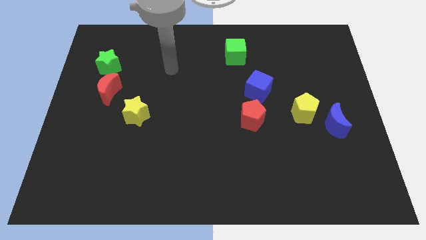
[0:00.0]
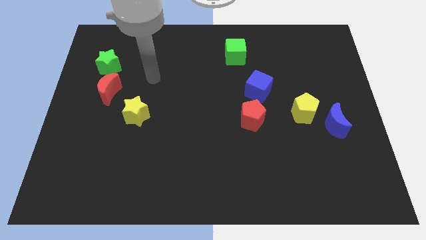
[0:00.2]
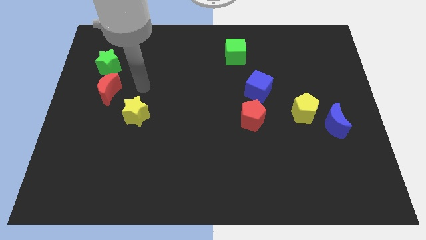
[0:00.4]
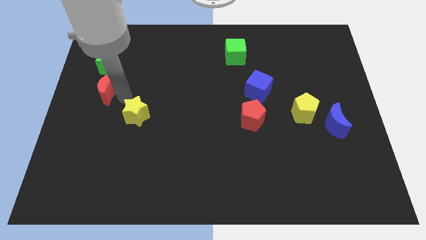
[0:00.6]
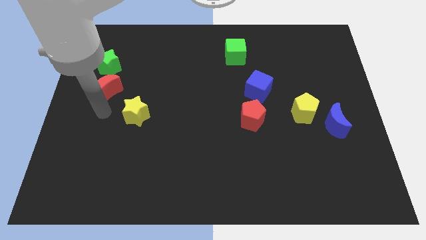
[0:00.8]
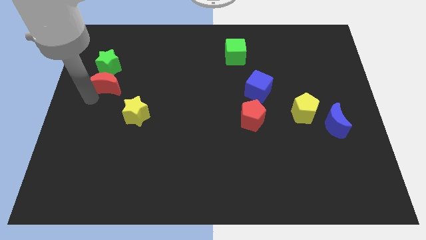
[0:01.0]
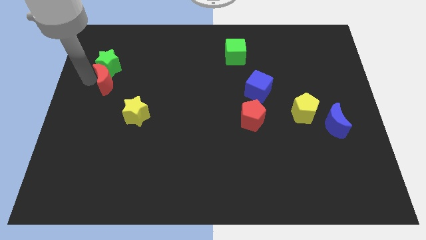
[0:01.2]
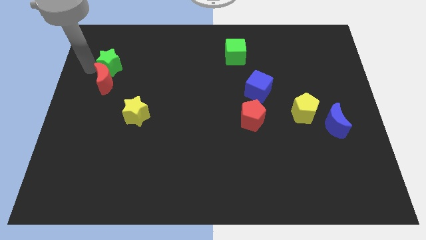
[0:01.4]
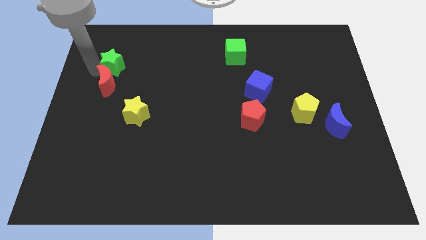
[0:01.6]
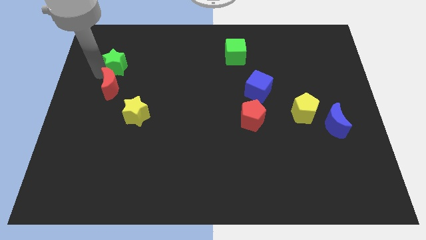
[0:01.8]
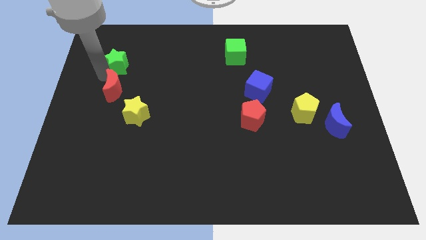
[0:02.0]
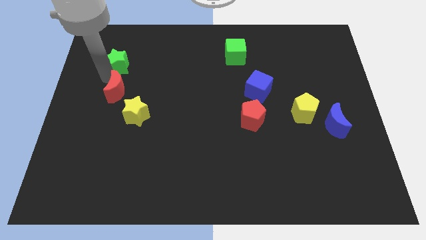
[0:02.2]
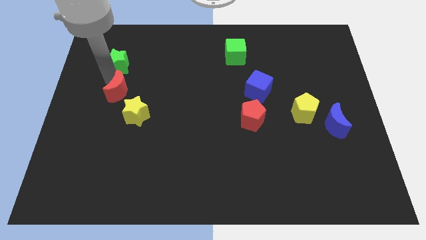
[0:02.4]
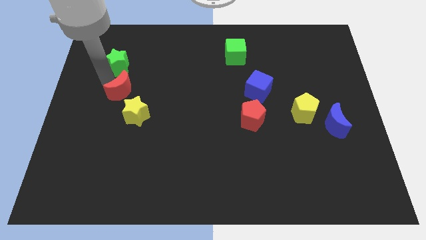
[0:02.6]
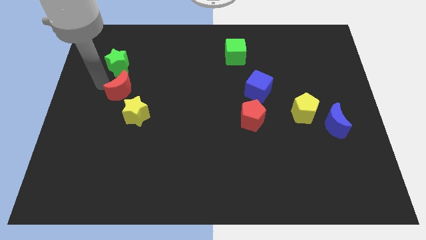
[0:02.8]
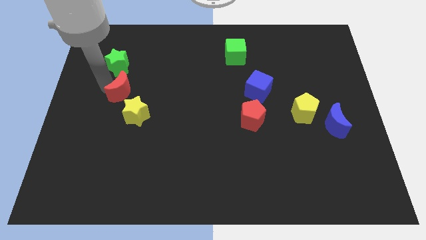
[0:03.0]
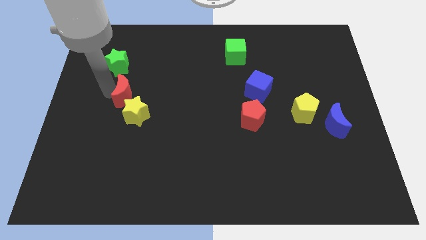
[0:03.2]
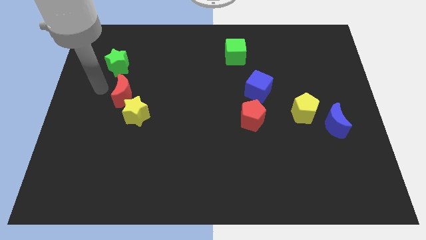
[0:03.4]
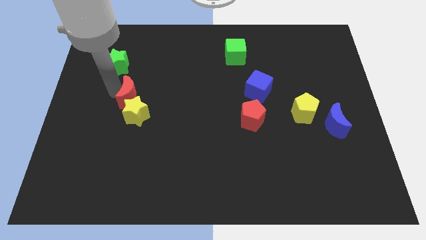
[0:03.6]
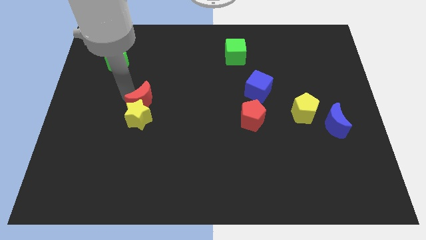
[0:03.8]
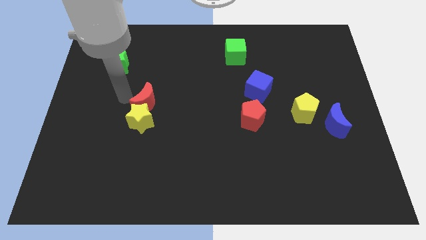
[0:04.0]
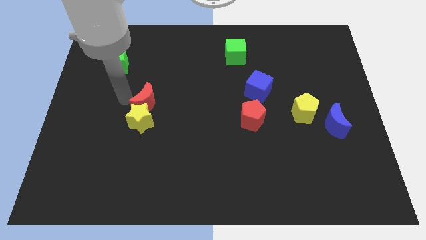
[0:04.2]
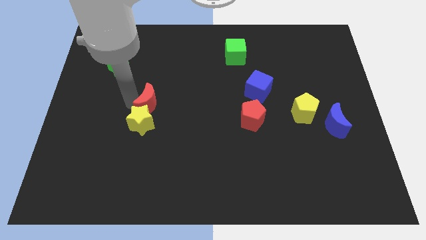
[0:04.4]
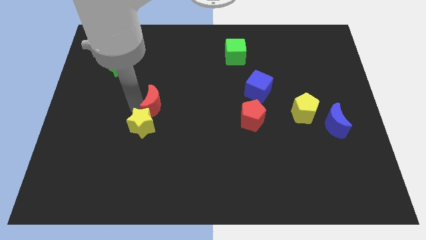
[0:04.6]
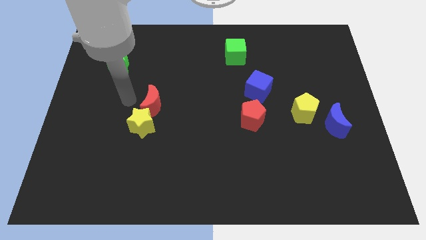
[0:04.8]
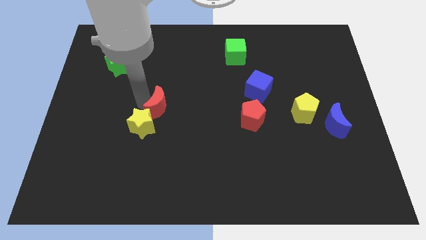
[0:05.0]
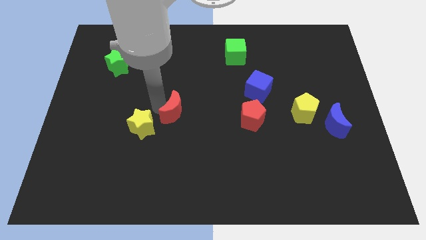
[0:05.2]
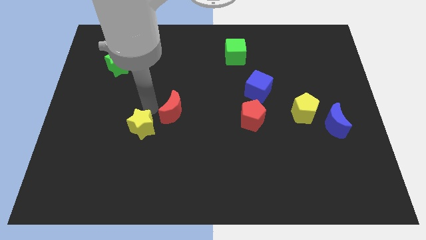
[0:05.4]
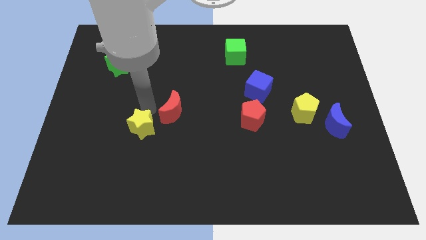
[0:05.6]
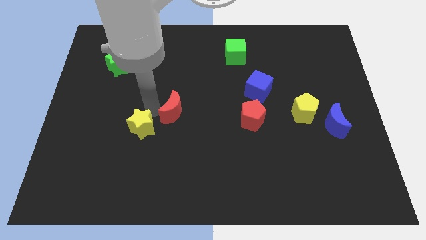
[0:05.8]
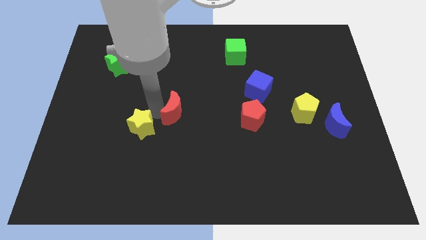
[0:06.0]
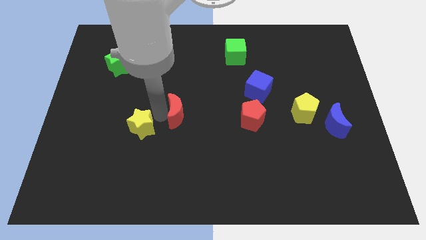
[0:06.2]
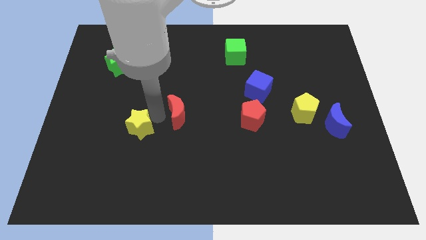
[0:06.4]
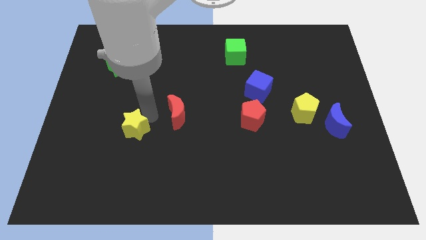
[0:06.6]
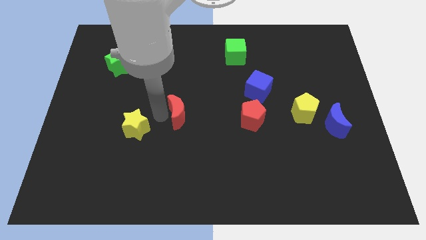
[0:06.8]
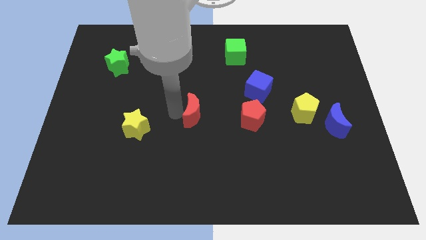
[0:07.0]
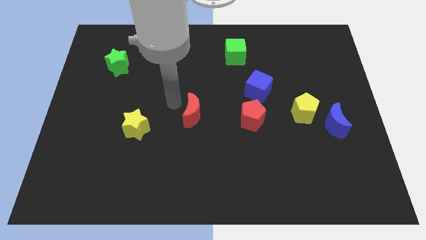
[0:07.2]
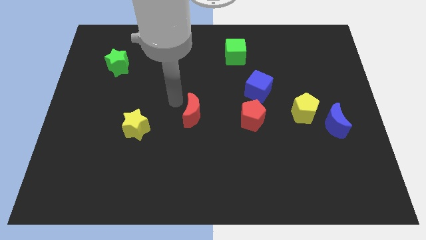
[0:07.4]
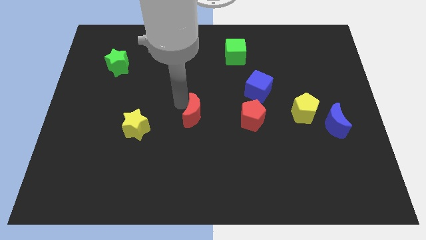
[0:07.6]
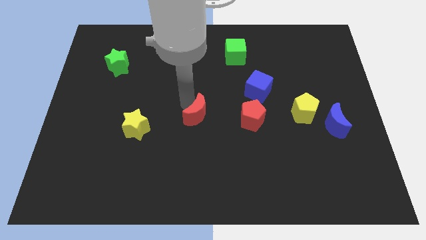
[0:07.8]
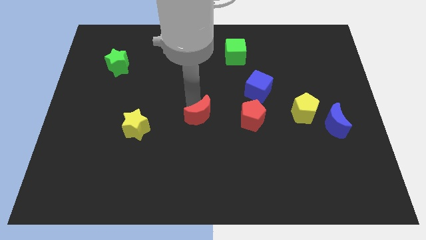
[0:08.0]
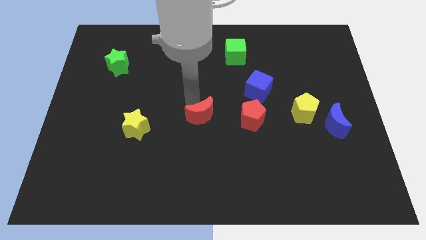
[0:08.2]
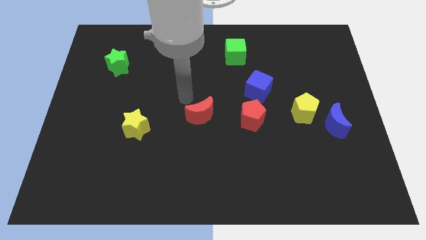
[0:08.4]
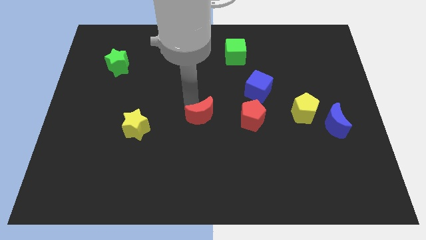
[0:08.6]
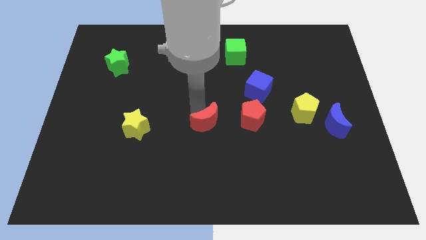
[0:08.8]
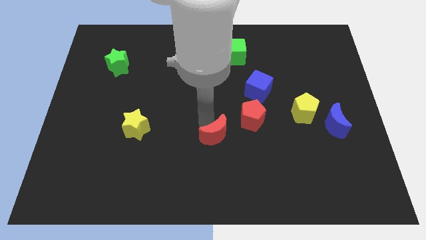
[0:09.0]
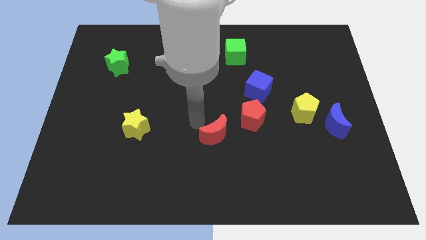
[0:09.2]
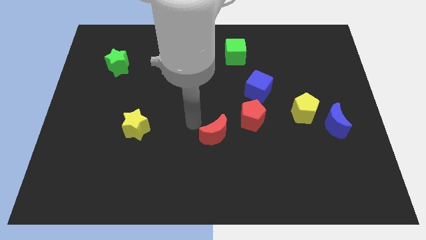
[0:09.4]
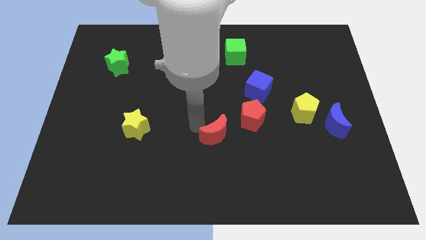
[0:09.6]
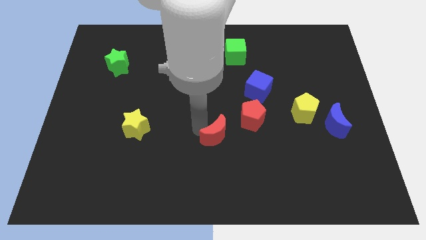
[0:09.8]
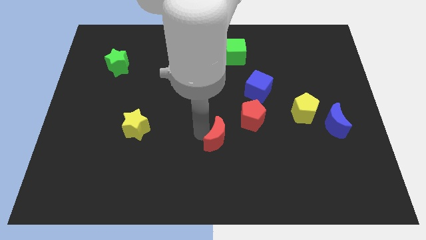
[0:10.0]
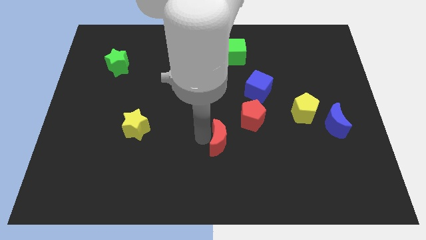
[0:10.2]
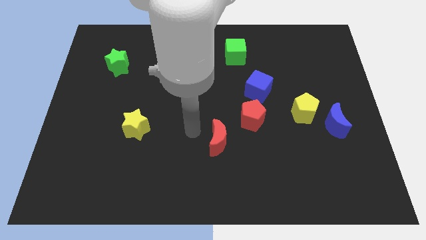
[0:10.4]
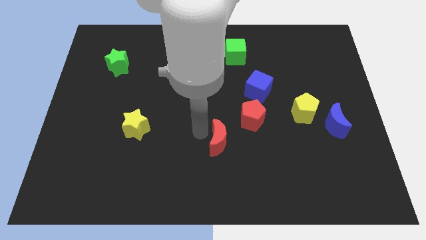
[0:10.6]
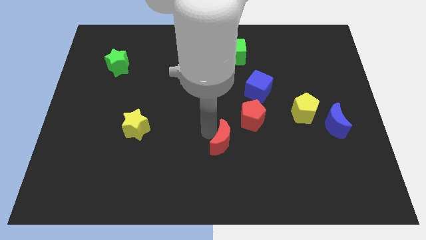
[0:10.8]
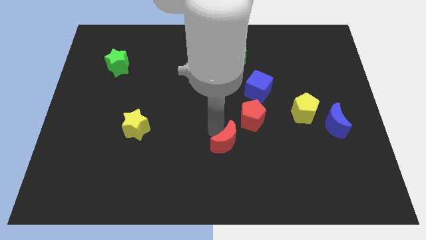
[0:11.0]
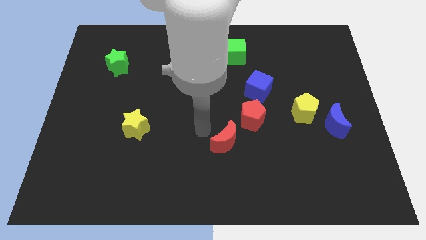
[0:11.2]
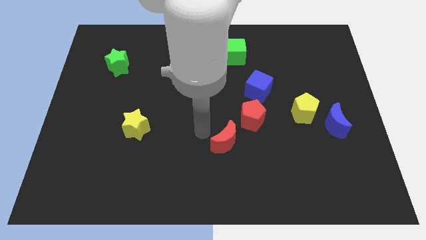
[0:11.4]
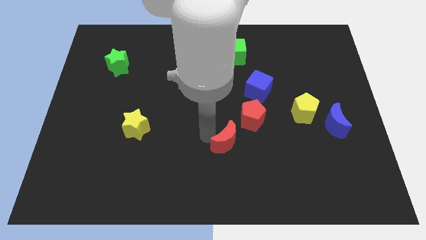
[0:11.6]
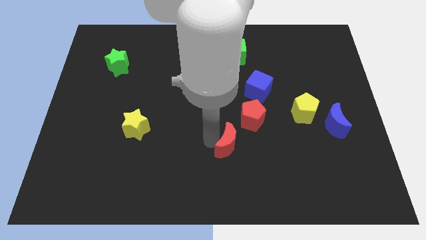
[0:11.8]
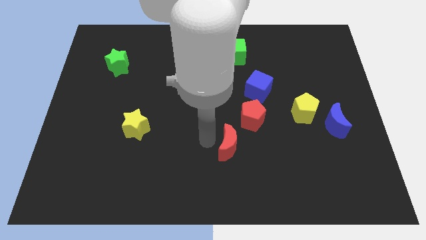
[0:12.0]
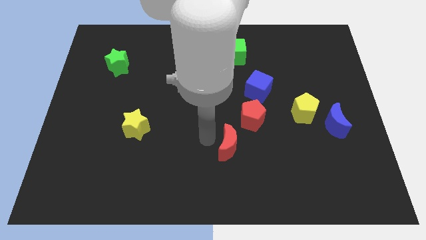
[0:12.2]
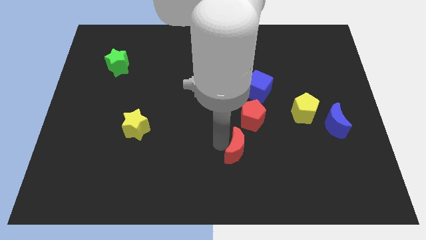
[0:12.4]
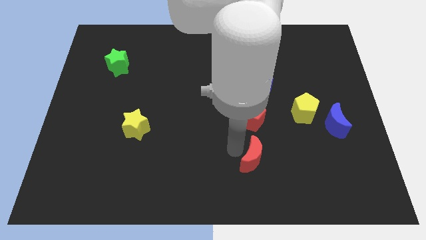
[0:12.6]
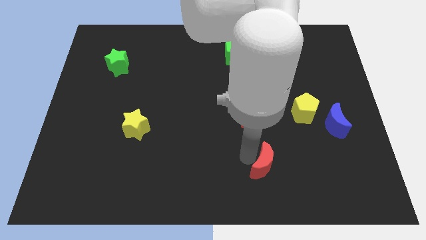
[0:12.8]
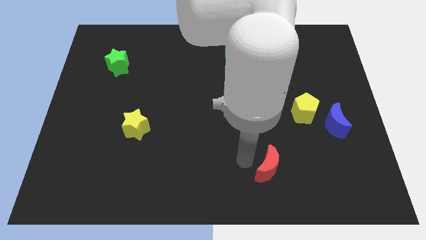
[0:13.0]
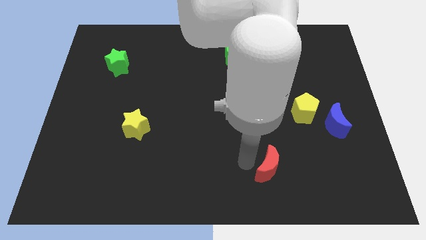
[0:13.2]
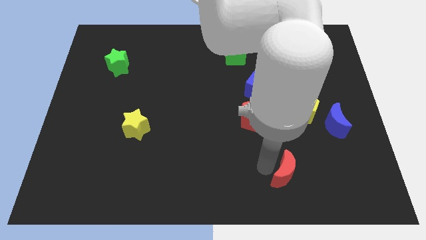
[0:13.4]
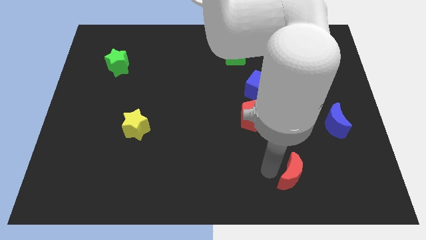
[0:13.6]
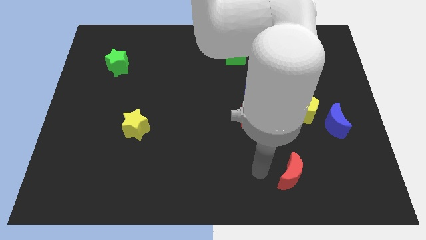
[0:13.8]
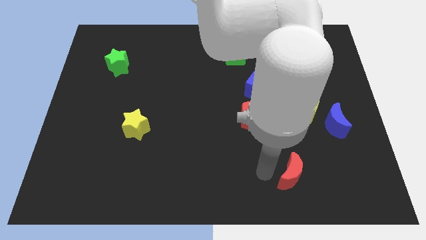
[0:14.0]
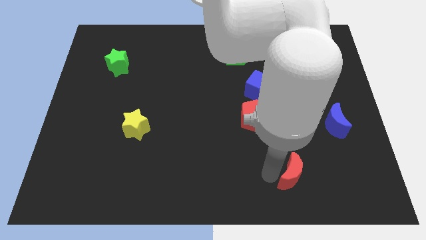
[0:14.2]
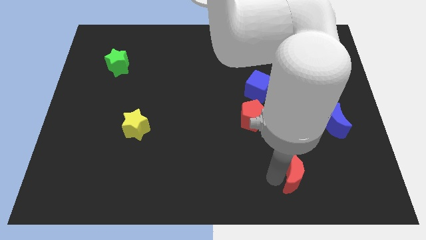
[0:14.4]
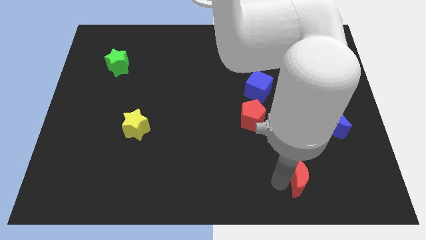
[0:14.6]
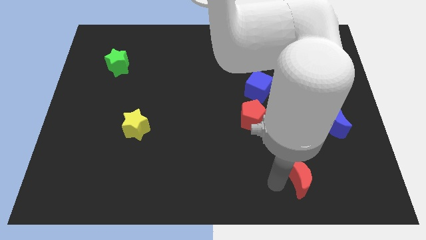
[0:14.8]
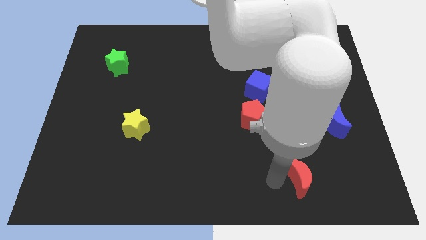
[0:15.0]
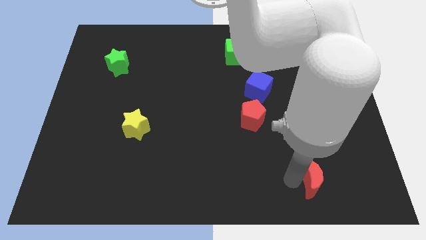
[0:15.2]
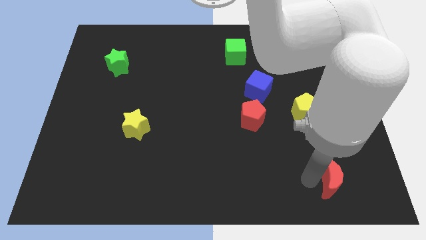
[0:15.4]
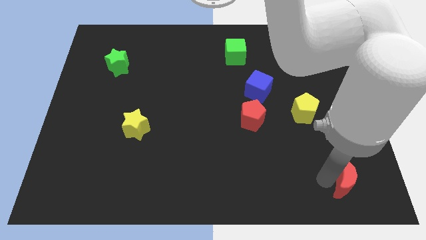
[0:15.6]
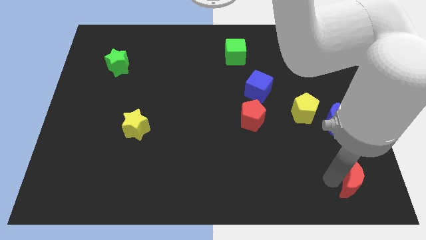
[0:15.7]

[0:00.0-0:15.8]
push the red moon to the bottom right
